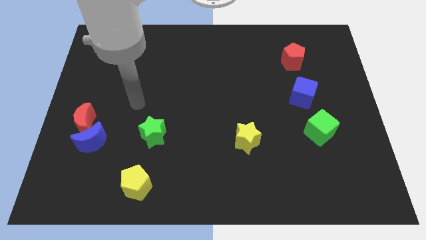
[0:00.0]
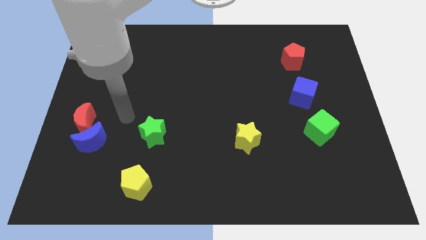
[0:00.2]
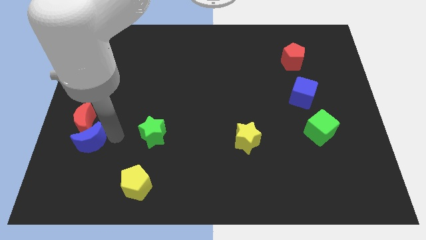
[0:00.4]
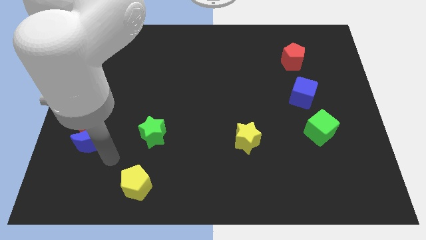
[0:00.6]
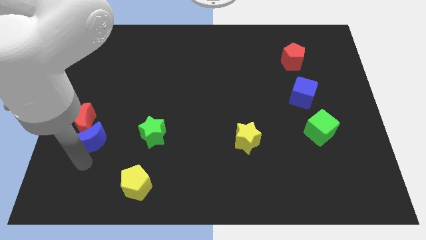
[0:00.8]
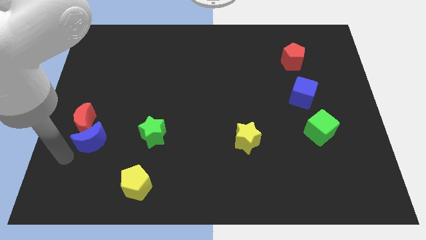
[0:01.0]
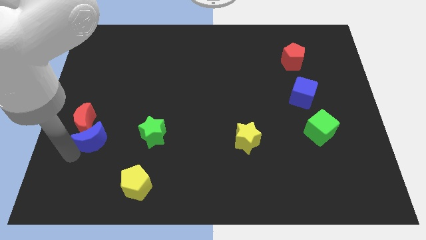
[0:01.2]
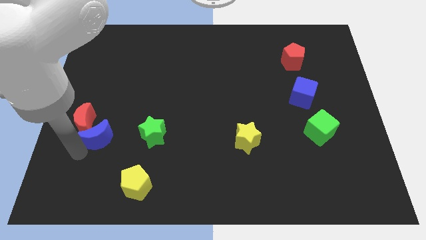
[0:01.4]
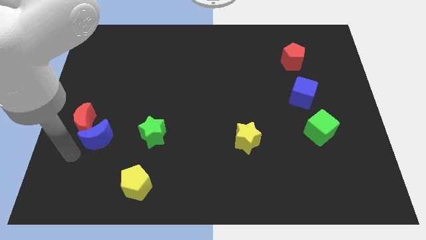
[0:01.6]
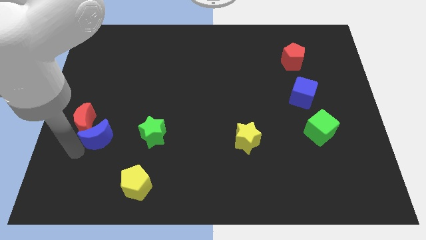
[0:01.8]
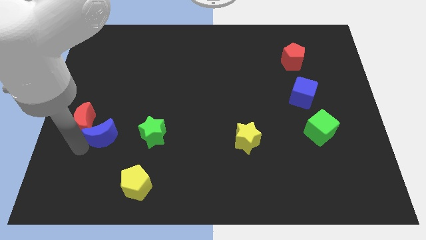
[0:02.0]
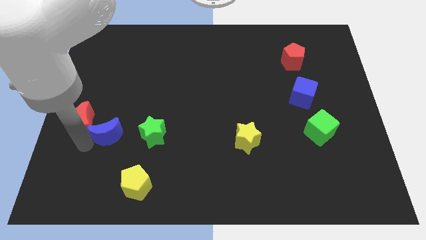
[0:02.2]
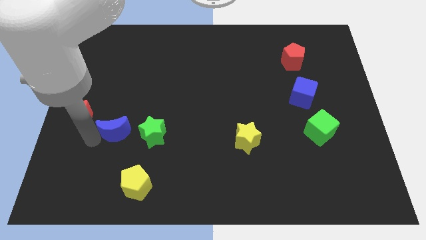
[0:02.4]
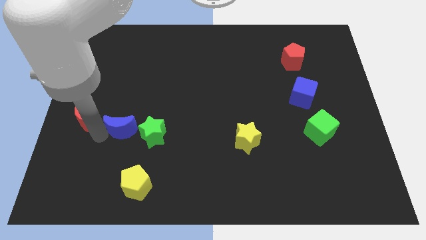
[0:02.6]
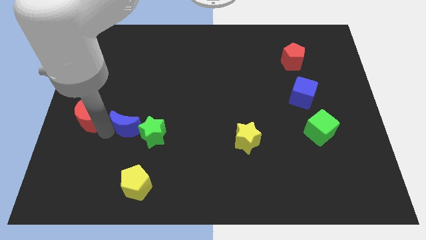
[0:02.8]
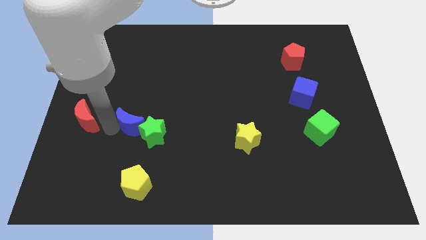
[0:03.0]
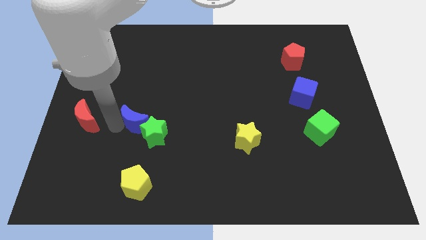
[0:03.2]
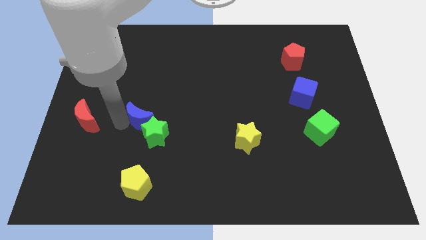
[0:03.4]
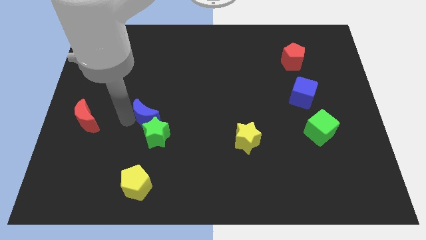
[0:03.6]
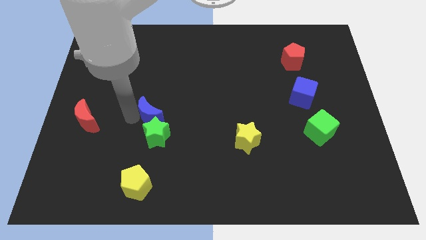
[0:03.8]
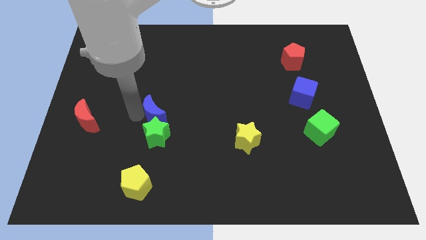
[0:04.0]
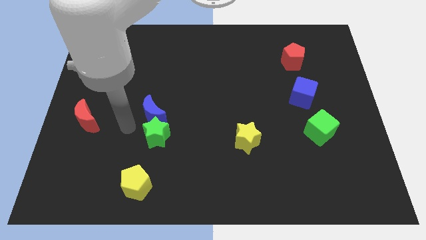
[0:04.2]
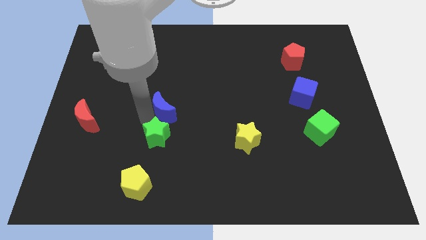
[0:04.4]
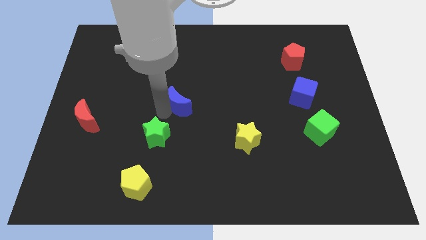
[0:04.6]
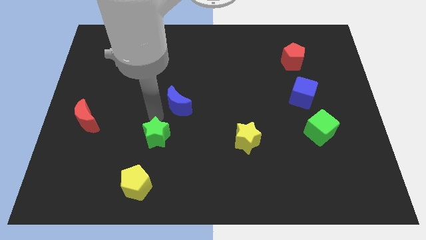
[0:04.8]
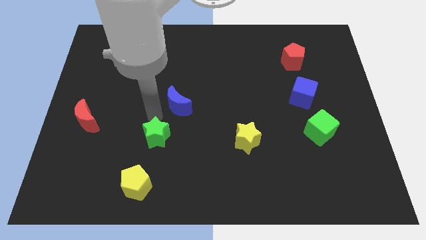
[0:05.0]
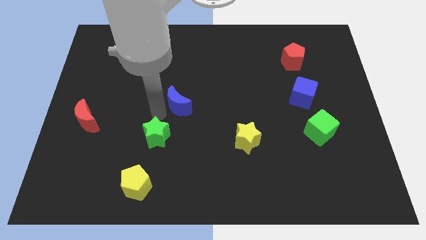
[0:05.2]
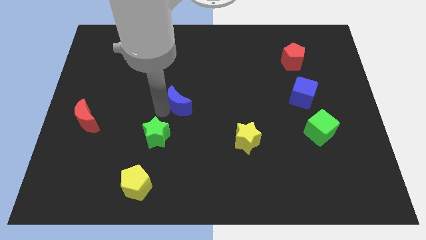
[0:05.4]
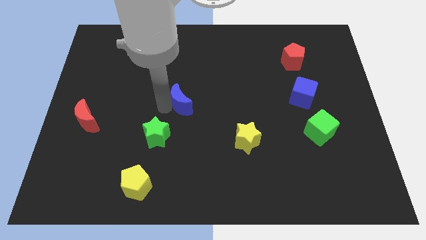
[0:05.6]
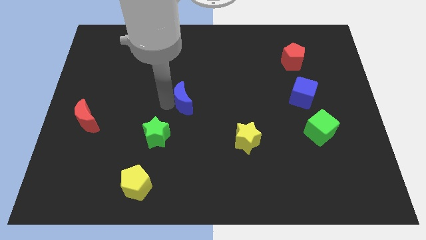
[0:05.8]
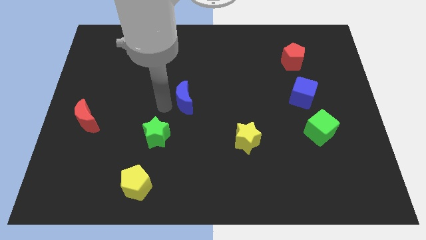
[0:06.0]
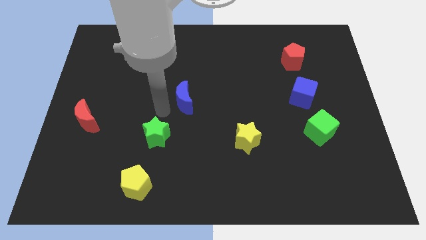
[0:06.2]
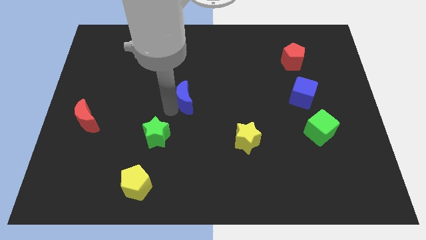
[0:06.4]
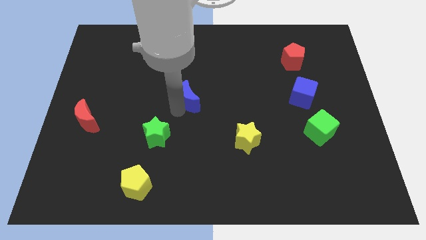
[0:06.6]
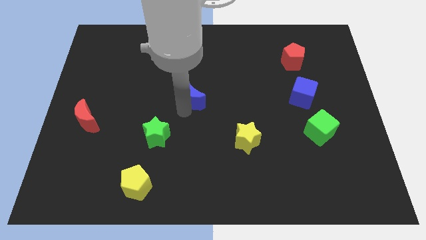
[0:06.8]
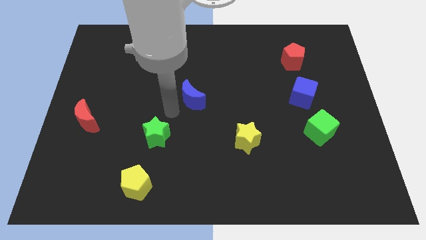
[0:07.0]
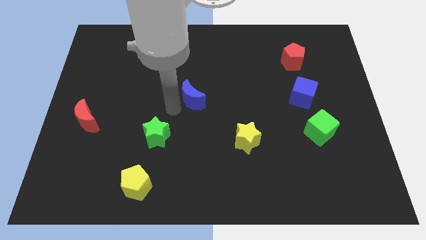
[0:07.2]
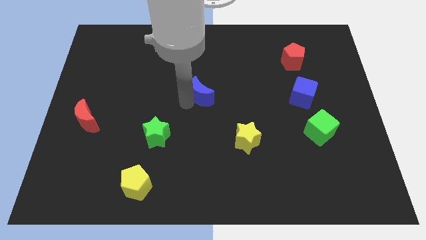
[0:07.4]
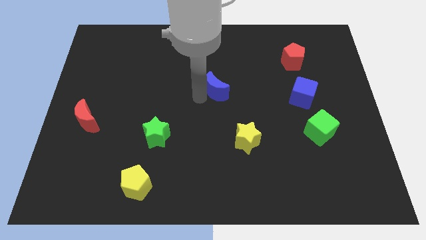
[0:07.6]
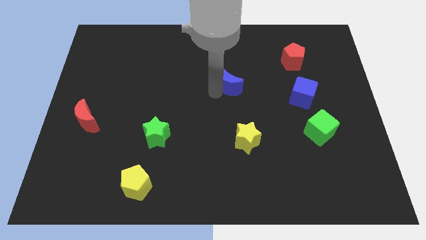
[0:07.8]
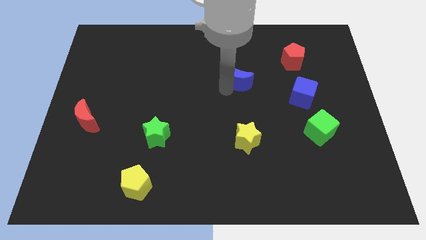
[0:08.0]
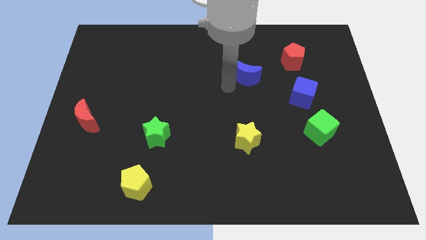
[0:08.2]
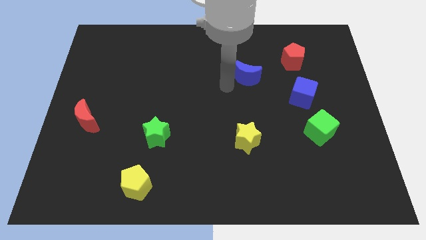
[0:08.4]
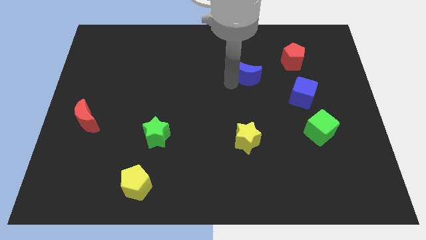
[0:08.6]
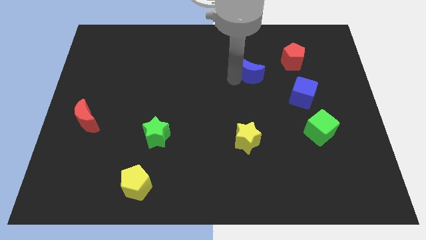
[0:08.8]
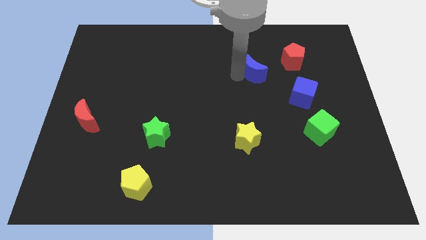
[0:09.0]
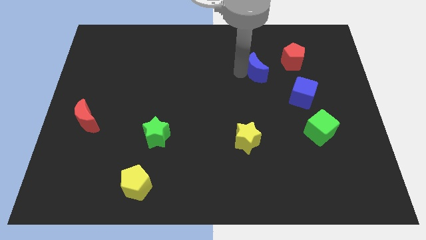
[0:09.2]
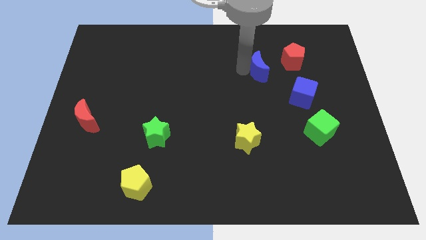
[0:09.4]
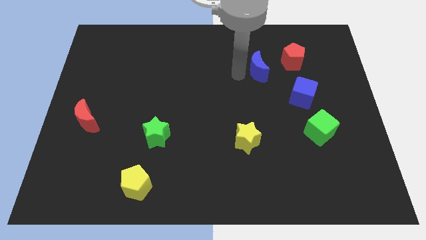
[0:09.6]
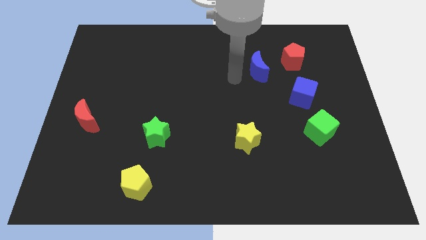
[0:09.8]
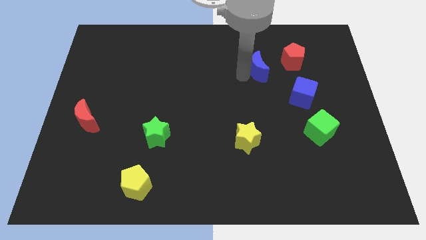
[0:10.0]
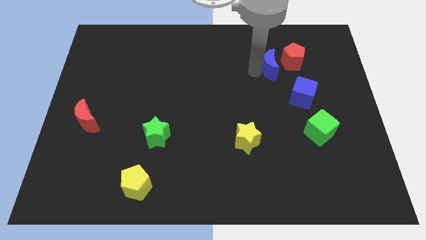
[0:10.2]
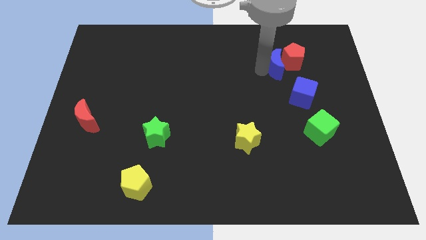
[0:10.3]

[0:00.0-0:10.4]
push the blue moon to the red pentagon

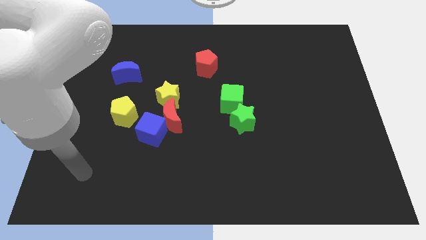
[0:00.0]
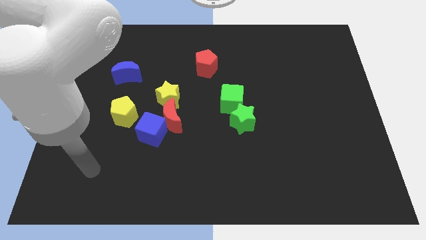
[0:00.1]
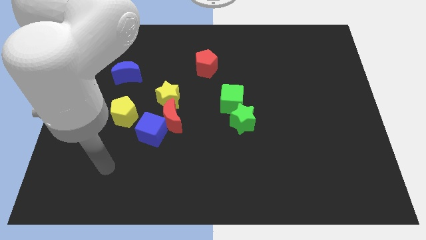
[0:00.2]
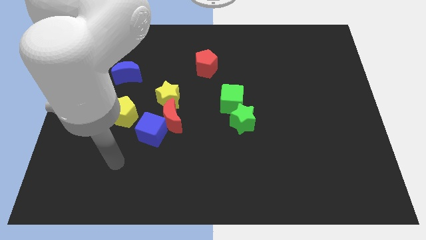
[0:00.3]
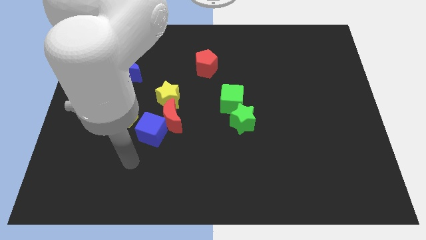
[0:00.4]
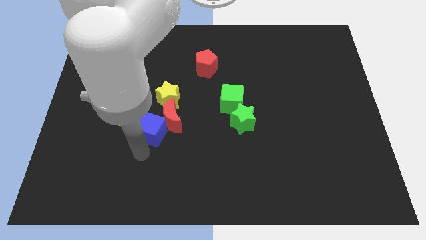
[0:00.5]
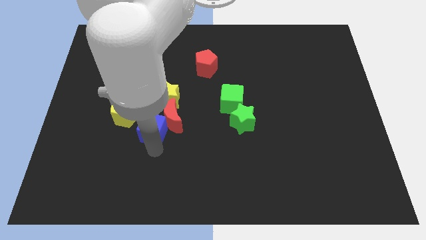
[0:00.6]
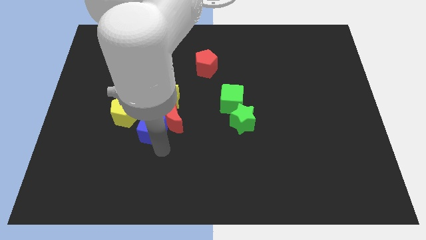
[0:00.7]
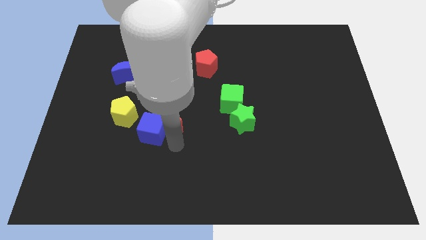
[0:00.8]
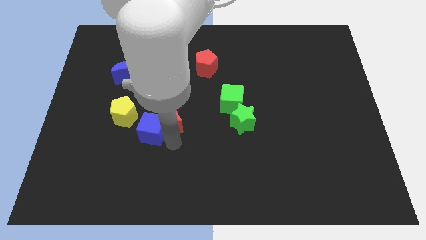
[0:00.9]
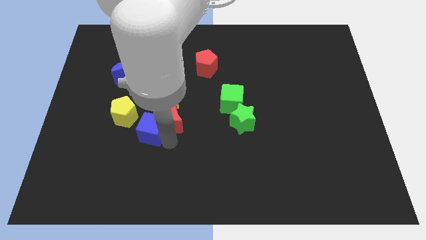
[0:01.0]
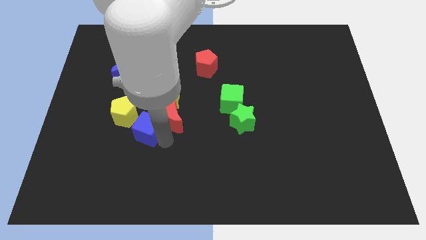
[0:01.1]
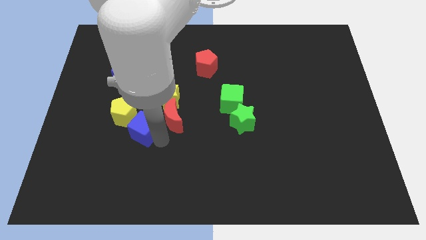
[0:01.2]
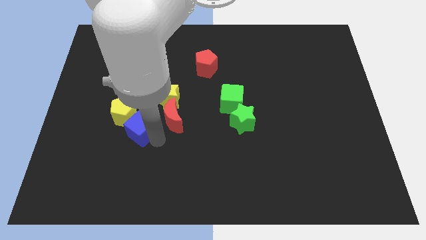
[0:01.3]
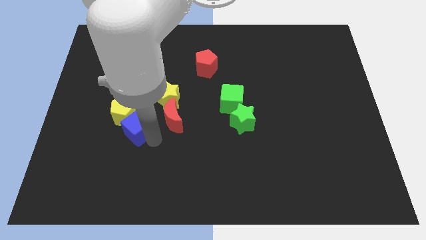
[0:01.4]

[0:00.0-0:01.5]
slide the blue cube close to the yellow pentagon
